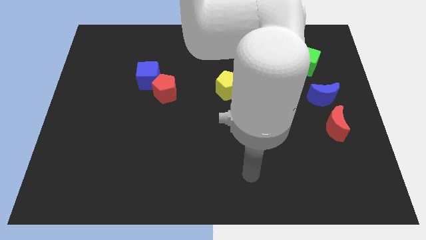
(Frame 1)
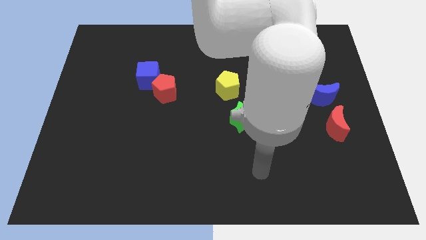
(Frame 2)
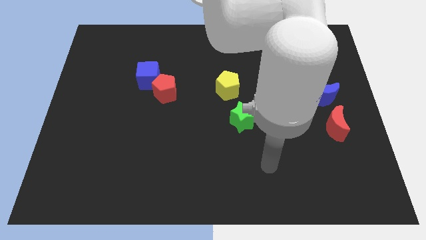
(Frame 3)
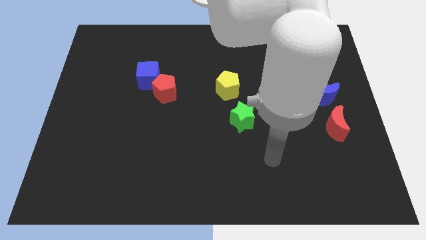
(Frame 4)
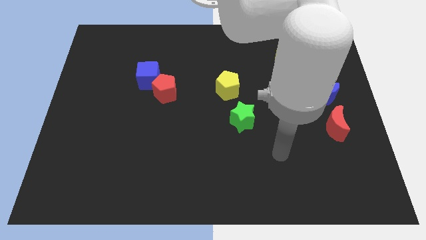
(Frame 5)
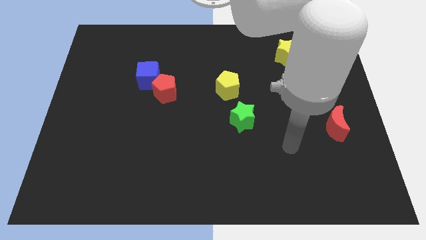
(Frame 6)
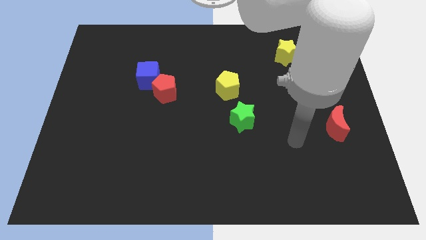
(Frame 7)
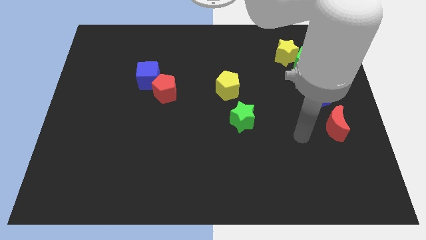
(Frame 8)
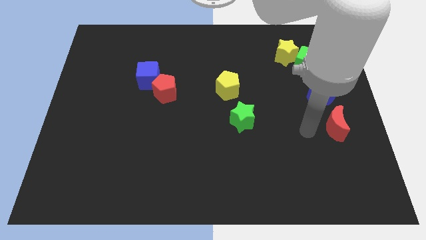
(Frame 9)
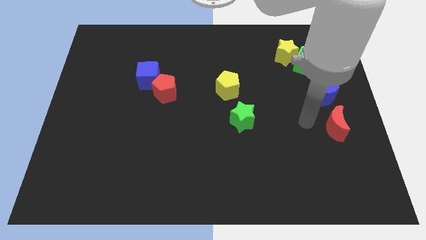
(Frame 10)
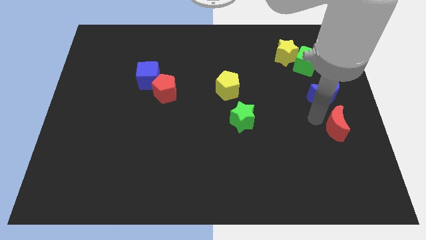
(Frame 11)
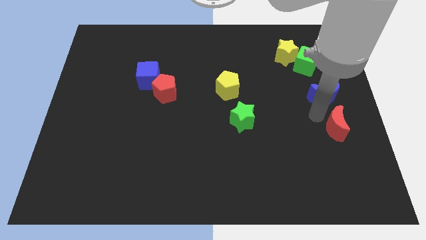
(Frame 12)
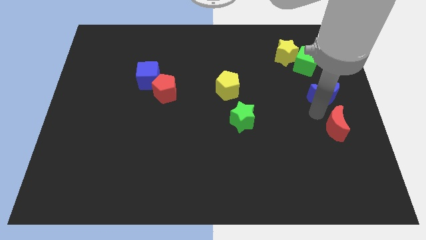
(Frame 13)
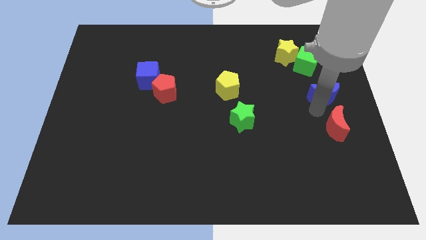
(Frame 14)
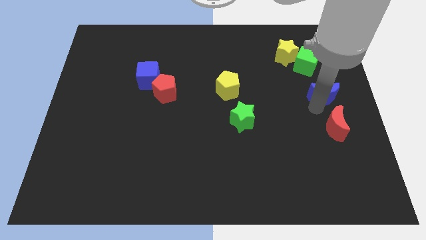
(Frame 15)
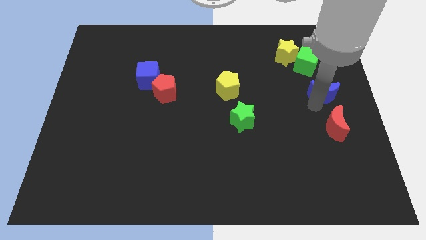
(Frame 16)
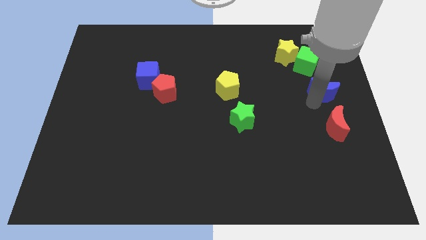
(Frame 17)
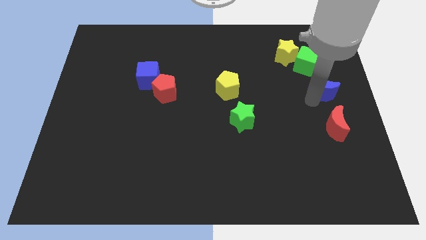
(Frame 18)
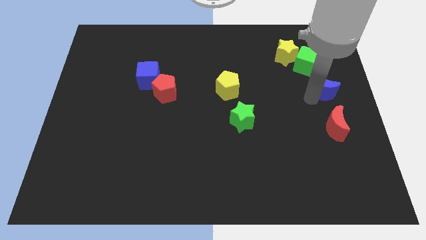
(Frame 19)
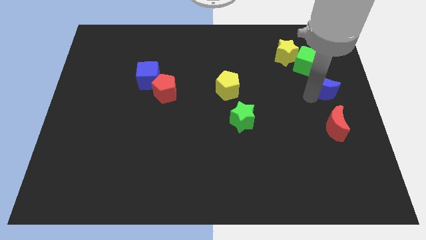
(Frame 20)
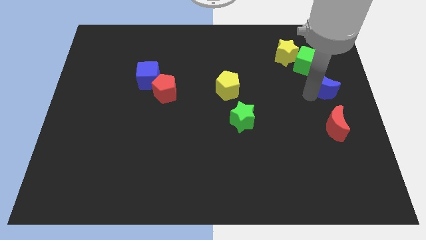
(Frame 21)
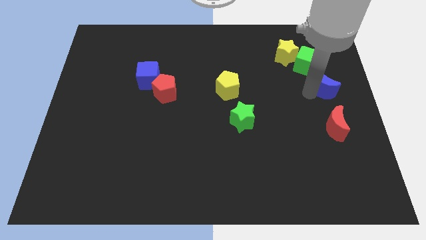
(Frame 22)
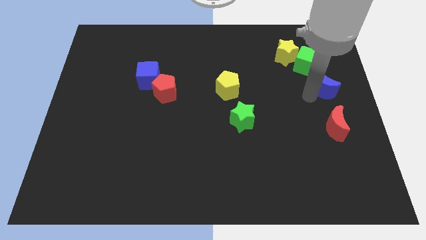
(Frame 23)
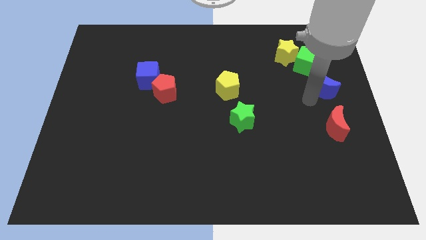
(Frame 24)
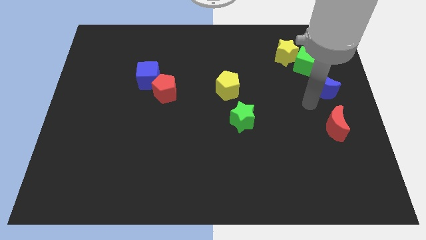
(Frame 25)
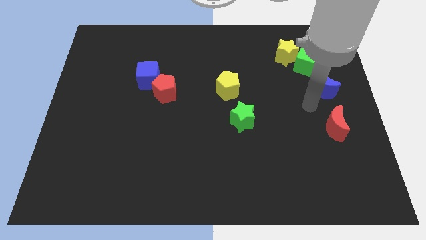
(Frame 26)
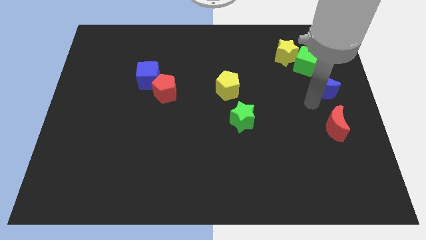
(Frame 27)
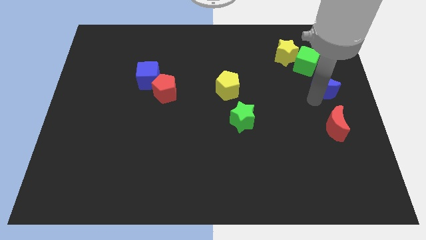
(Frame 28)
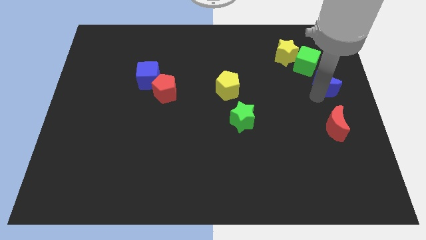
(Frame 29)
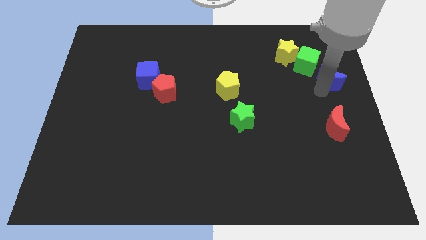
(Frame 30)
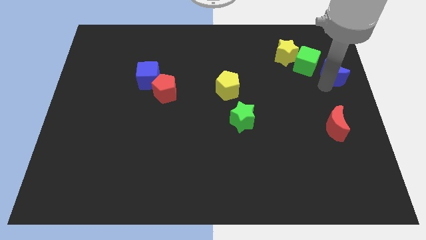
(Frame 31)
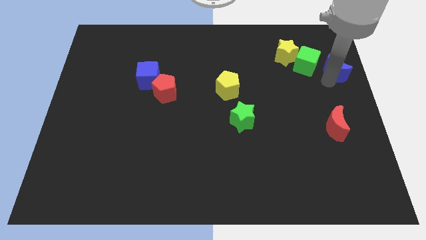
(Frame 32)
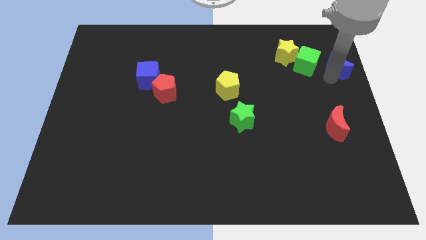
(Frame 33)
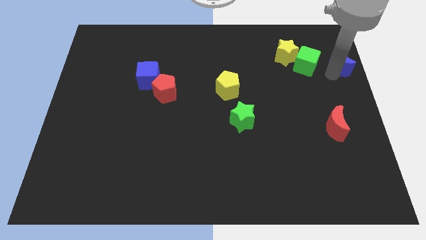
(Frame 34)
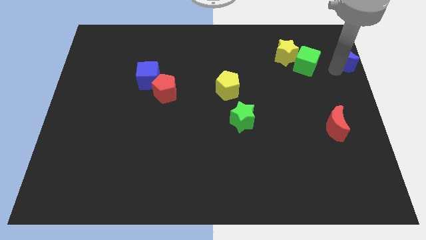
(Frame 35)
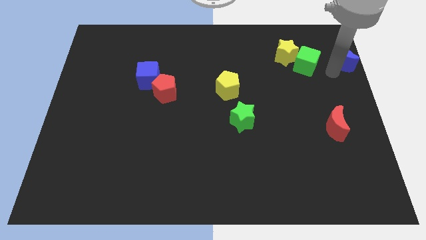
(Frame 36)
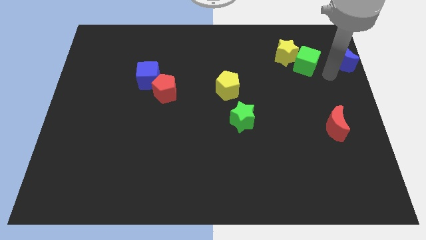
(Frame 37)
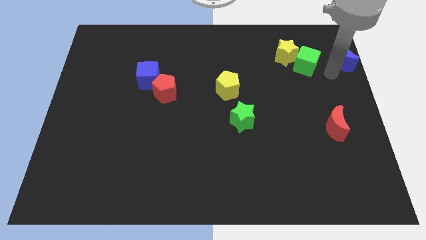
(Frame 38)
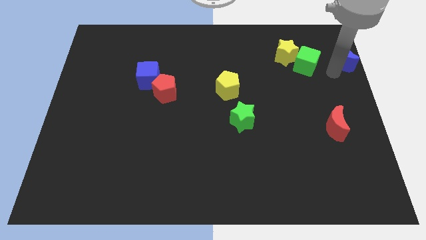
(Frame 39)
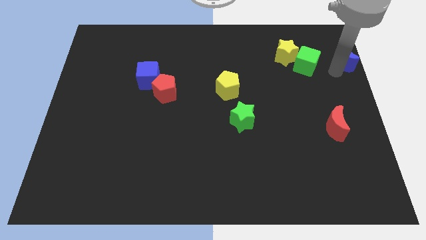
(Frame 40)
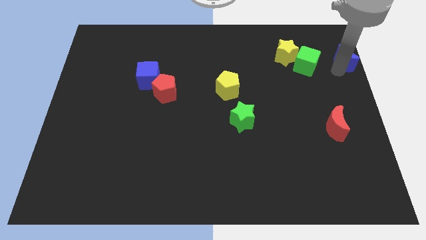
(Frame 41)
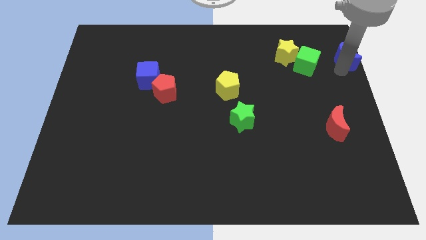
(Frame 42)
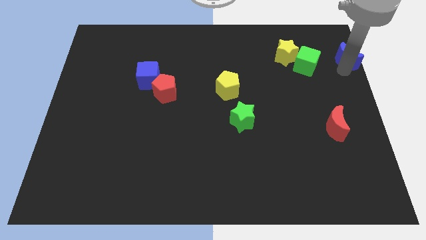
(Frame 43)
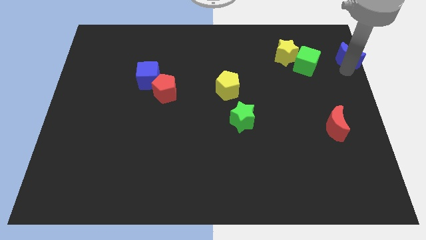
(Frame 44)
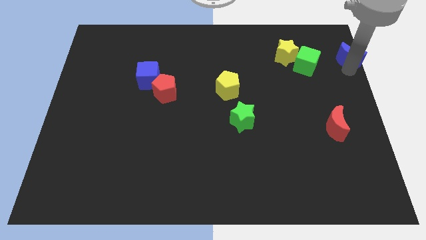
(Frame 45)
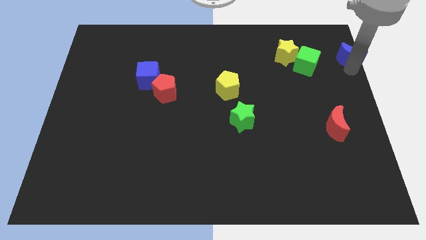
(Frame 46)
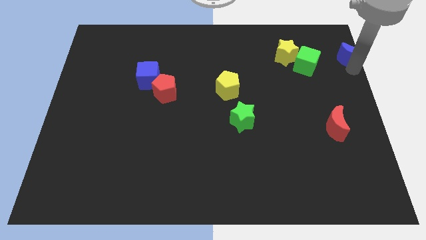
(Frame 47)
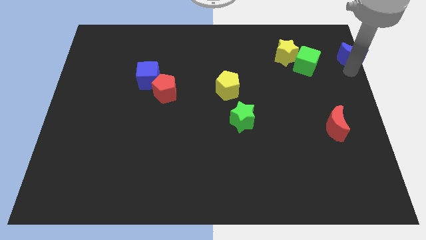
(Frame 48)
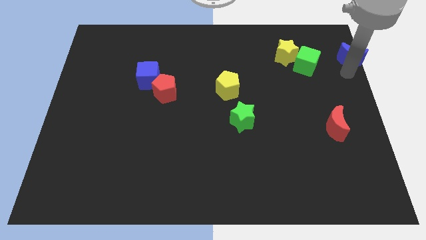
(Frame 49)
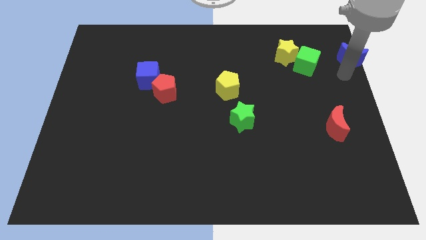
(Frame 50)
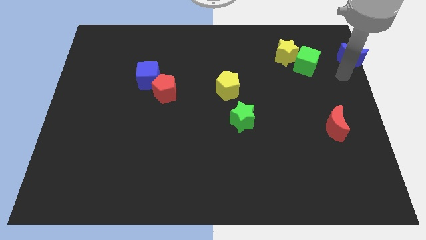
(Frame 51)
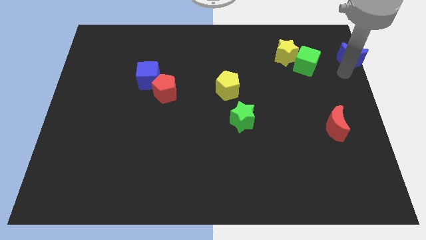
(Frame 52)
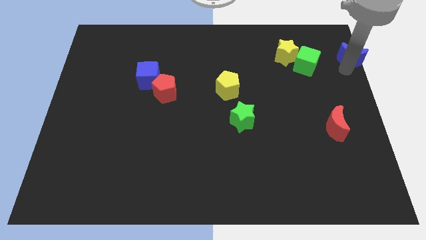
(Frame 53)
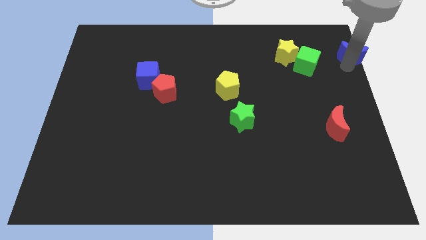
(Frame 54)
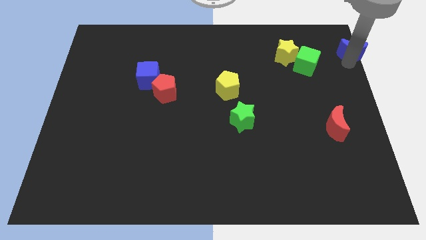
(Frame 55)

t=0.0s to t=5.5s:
put the blue moon to the top right
